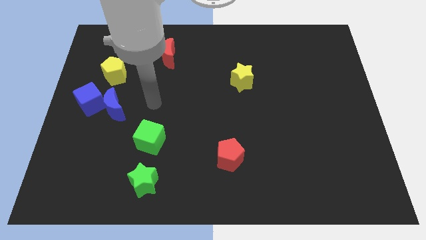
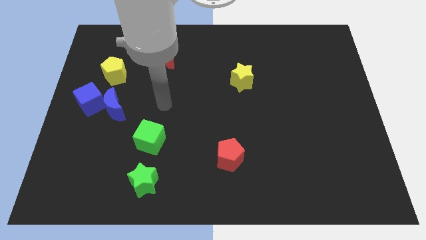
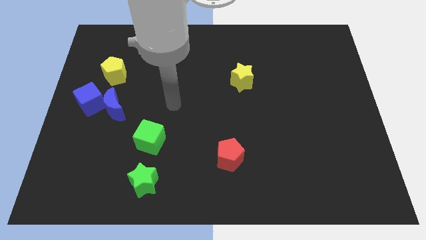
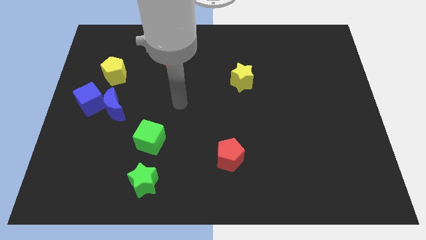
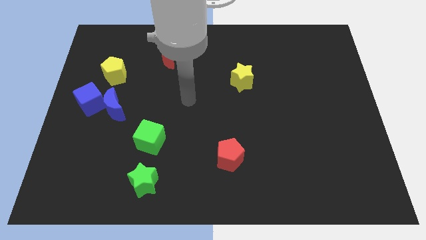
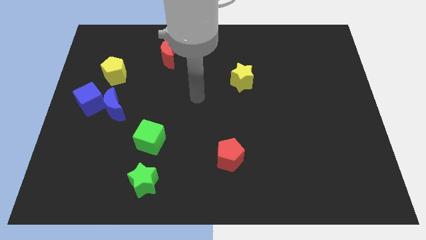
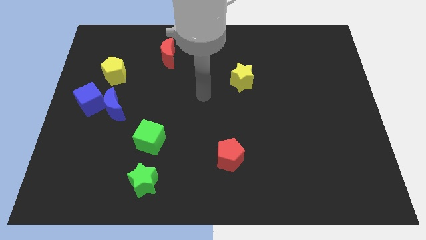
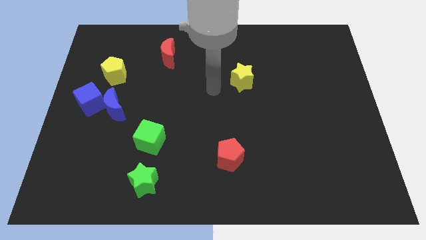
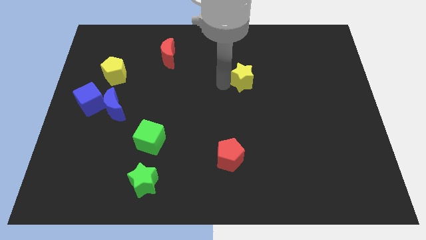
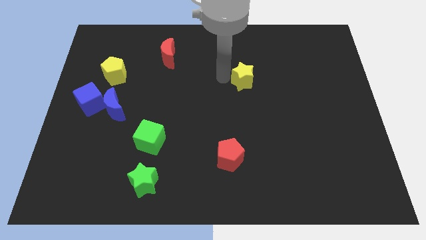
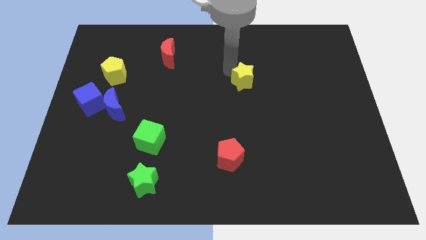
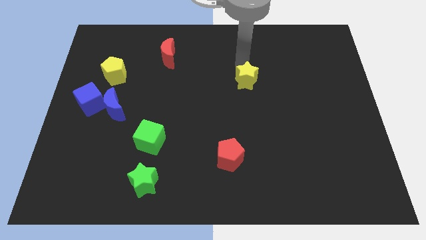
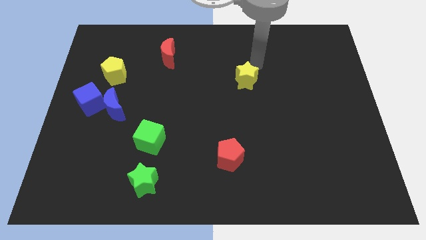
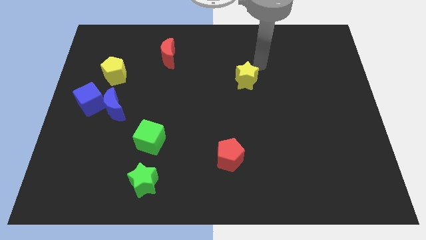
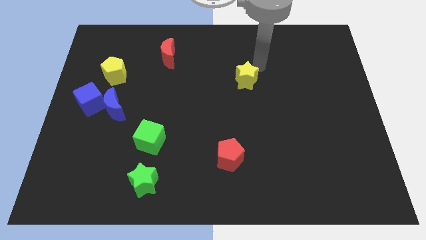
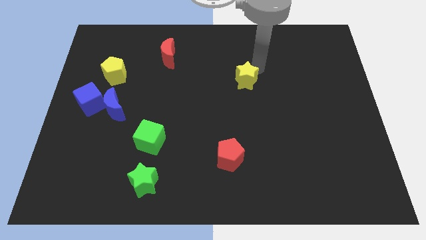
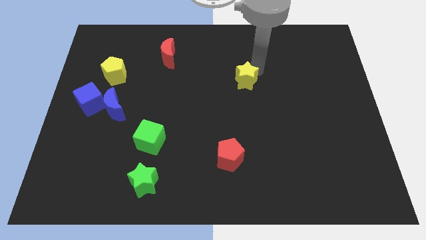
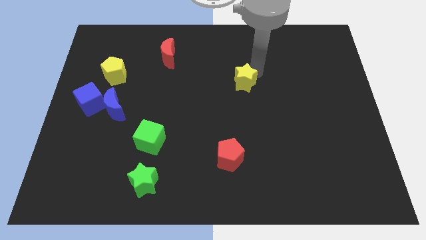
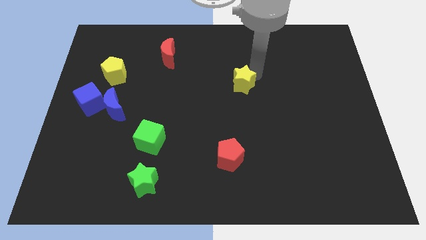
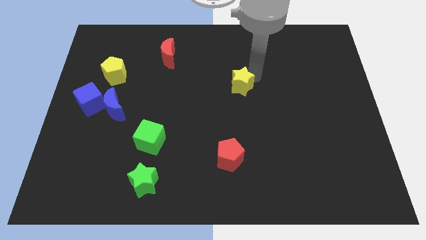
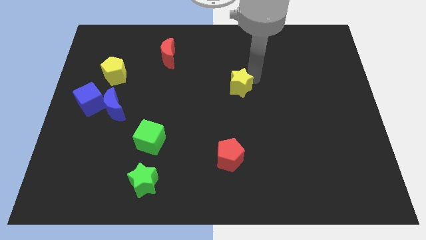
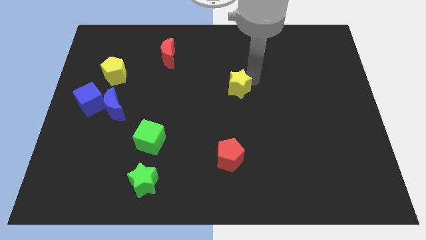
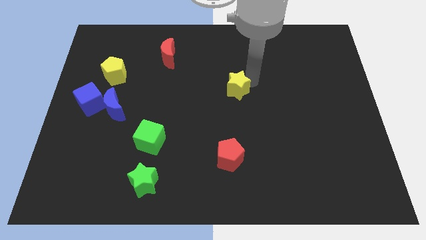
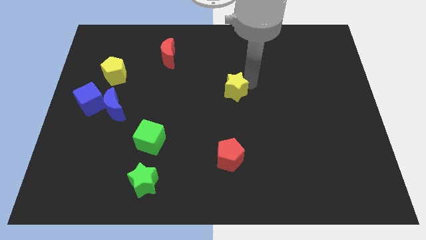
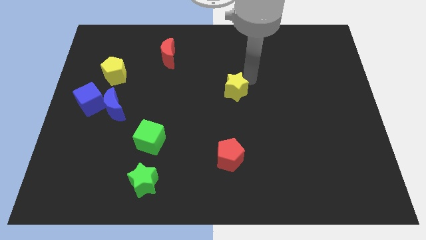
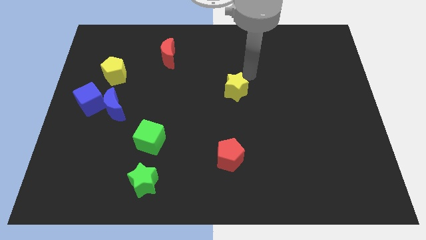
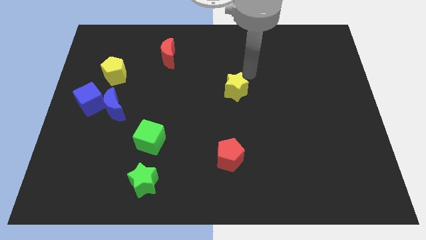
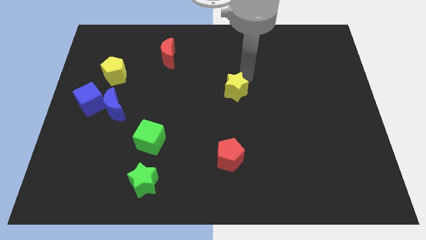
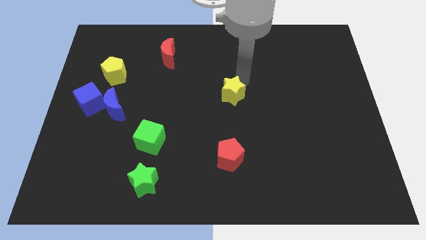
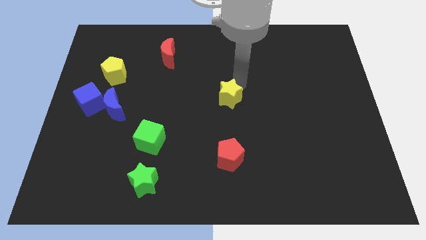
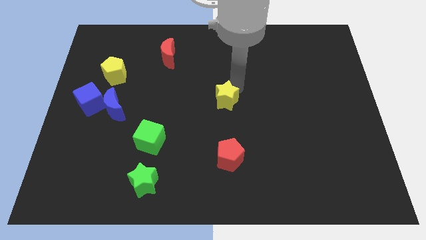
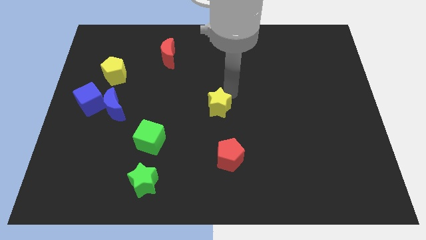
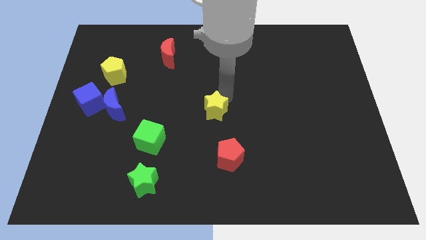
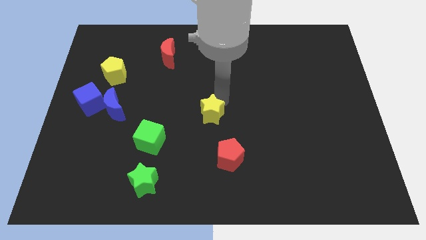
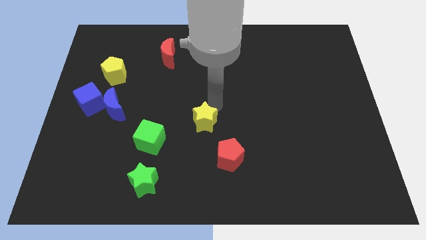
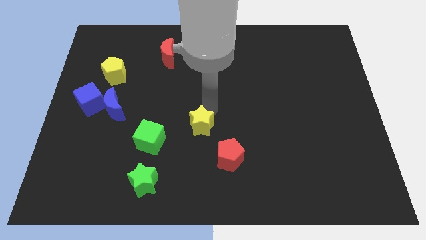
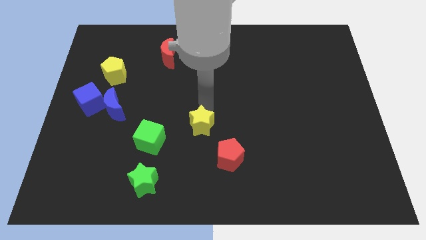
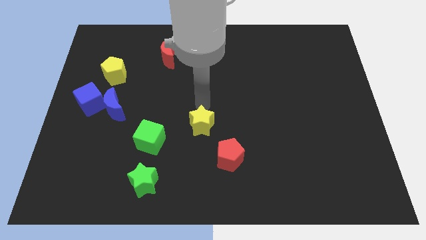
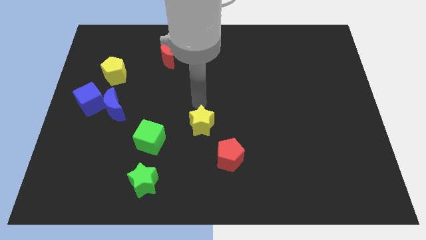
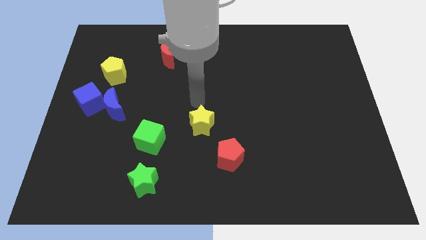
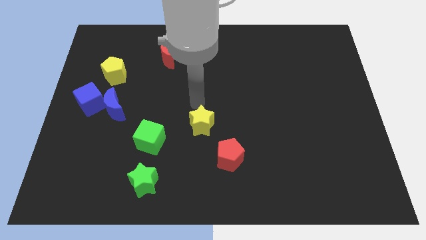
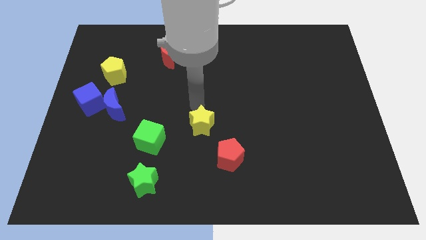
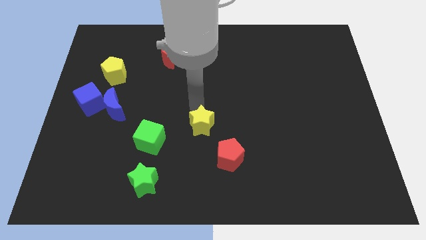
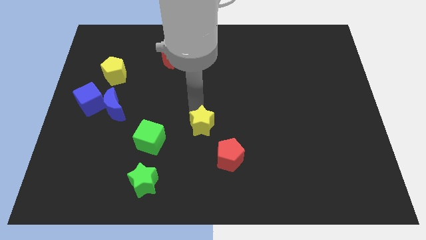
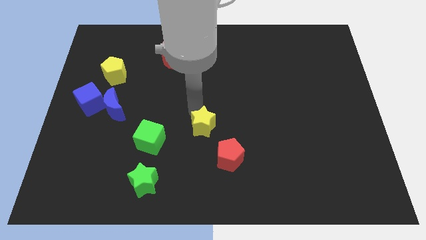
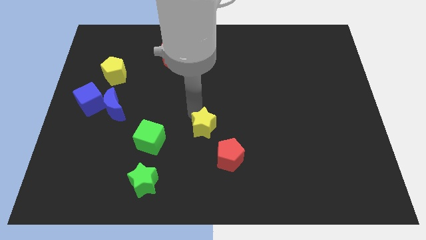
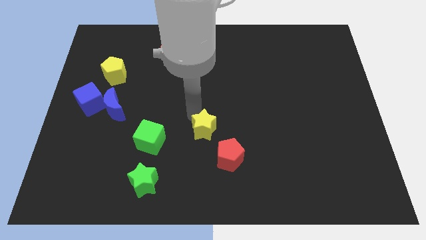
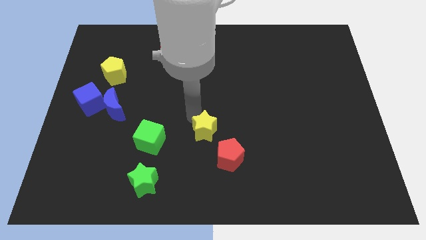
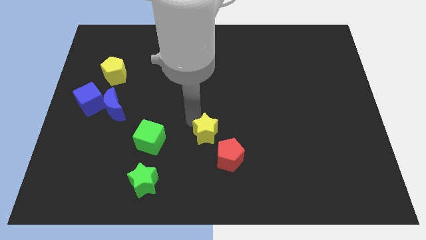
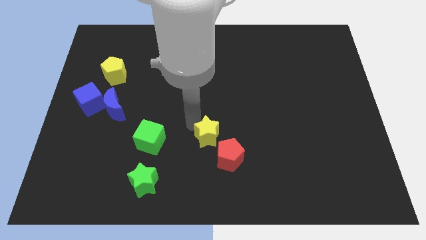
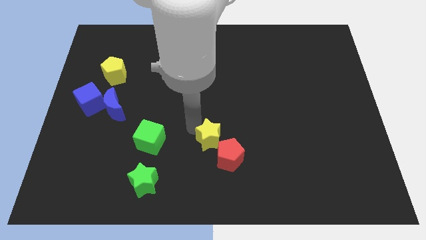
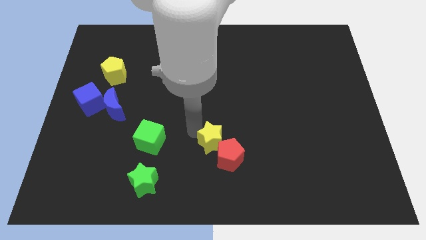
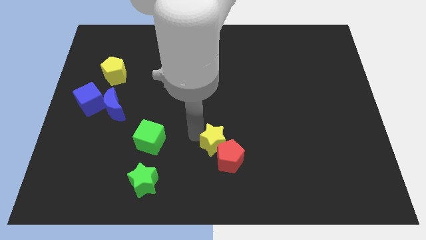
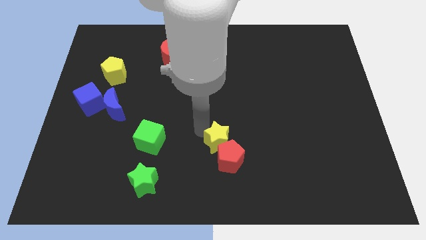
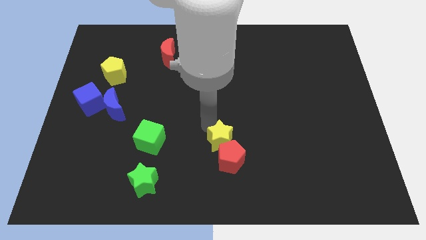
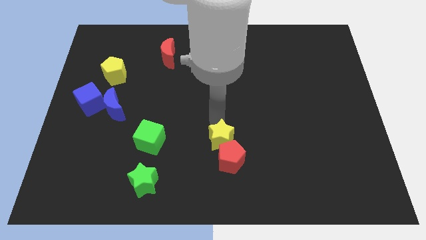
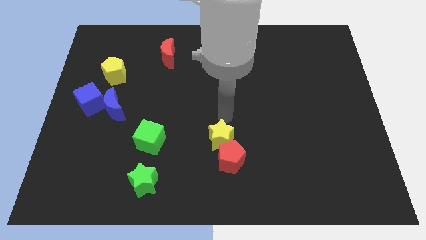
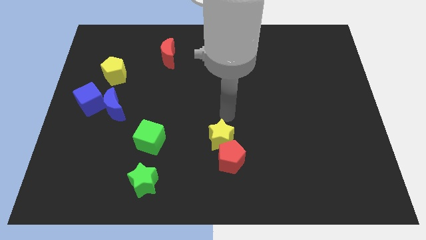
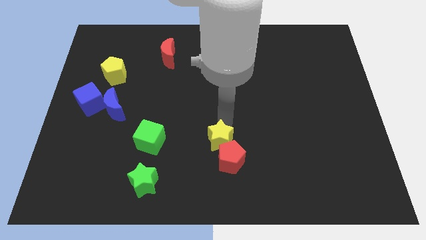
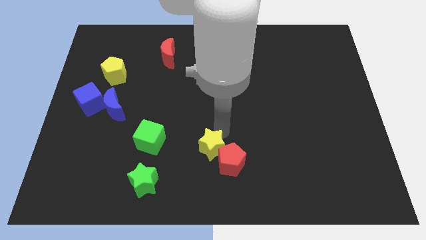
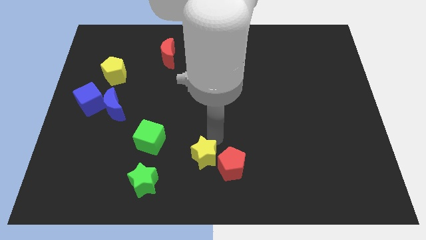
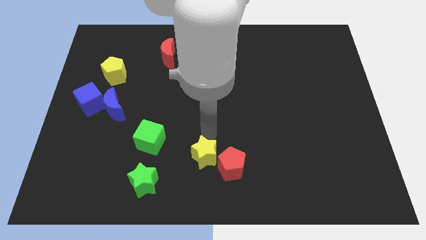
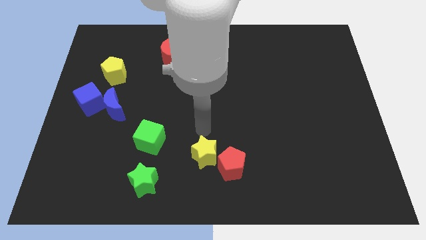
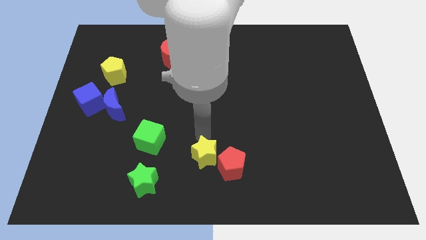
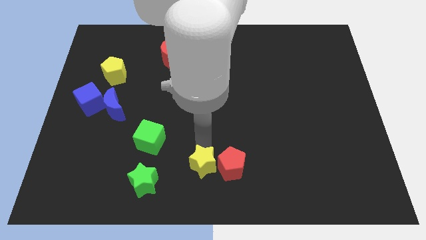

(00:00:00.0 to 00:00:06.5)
slide the yellow star to the bottom left of the red pentagon

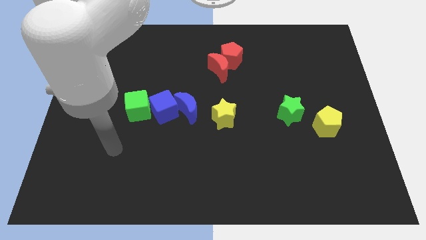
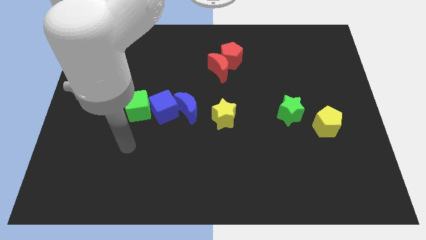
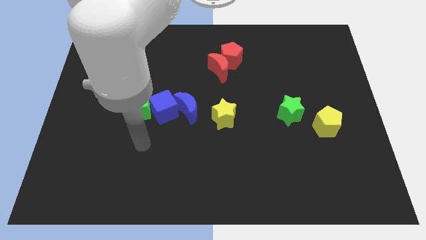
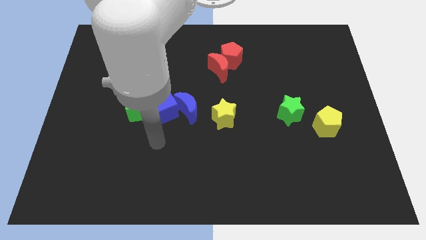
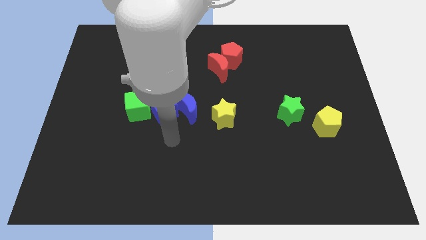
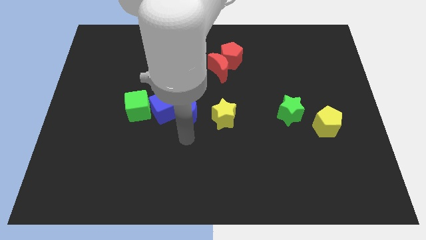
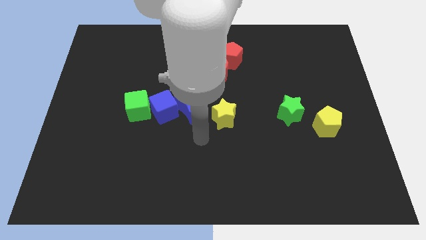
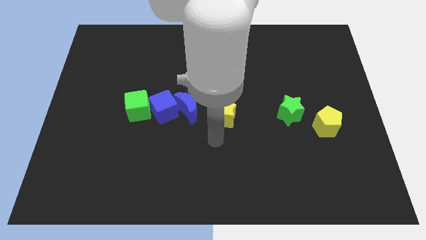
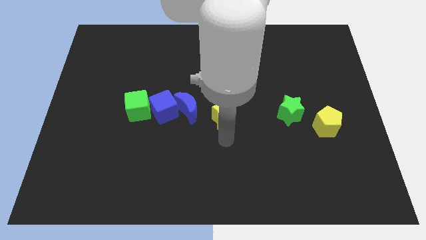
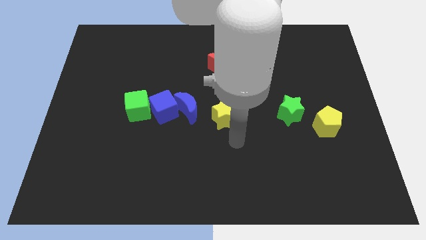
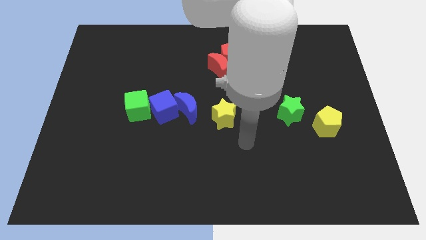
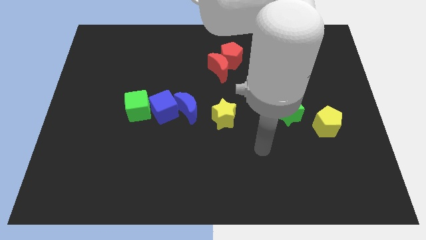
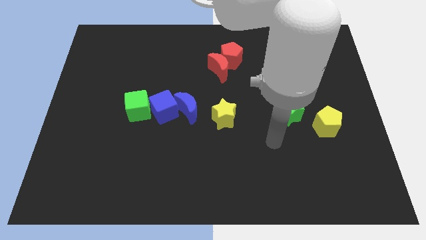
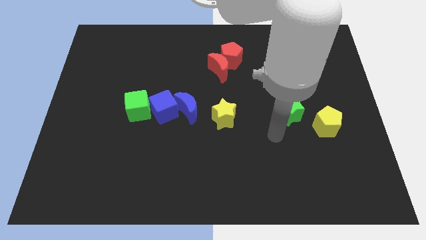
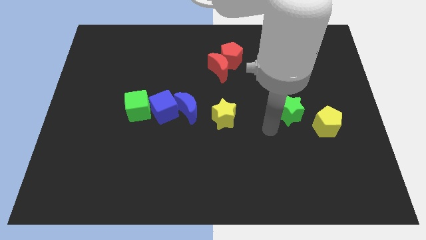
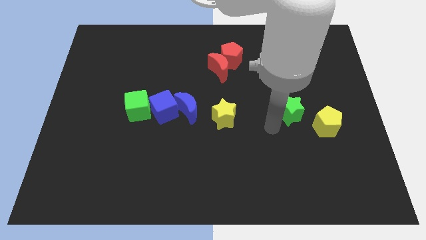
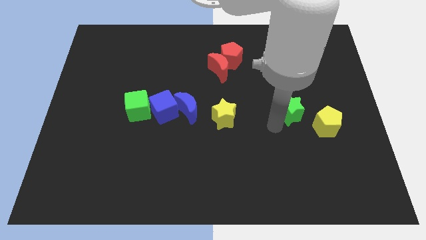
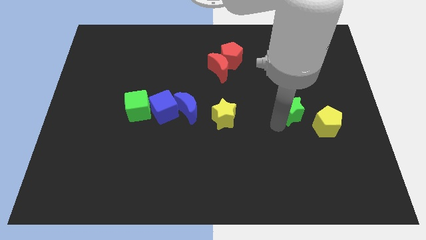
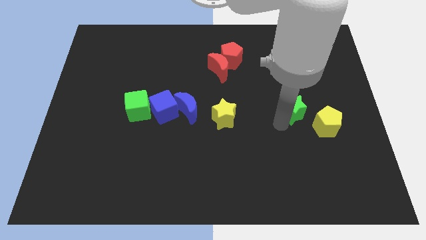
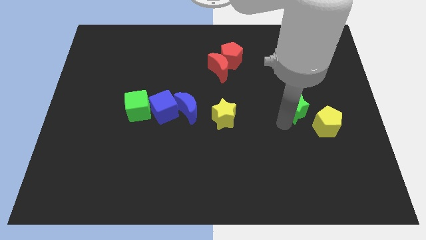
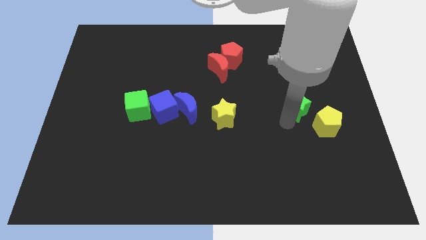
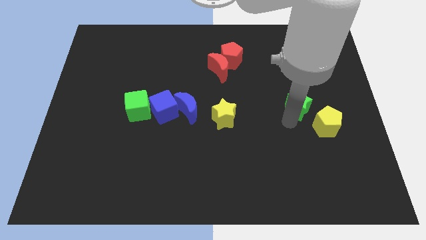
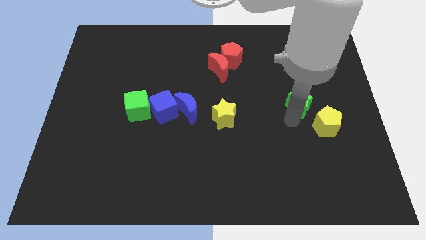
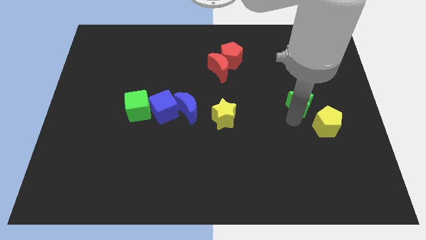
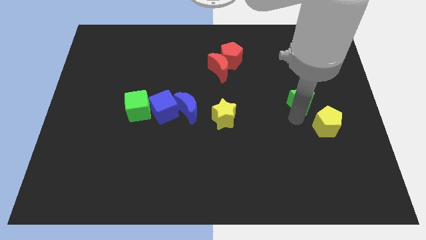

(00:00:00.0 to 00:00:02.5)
put the green star above the yellow pentagon
